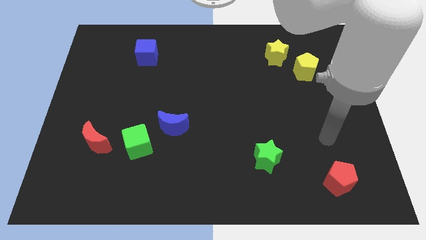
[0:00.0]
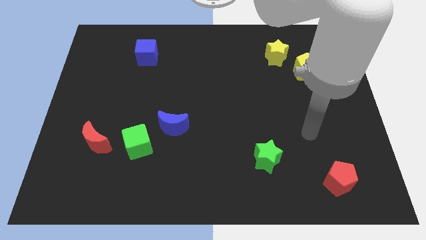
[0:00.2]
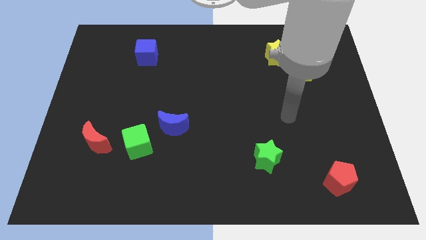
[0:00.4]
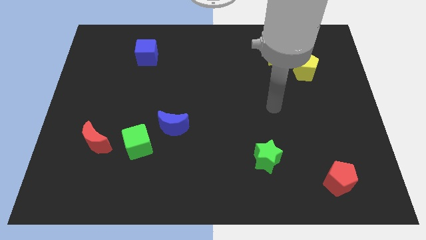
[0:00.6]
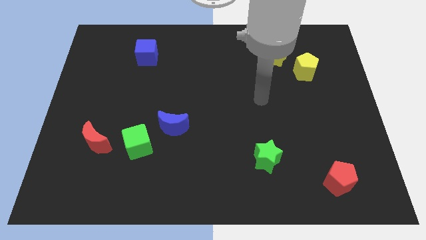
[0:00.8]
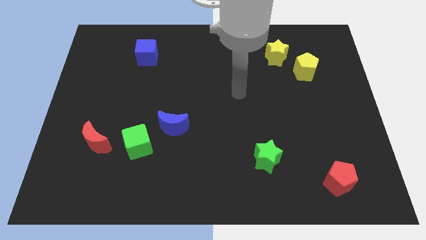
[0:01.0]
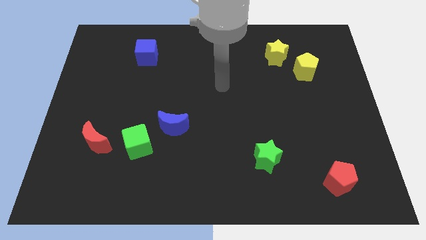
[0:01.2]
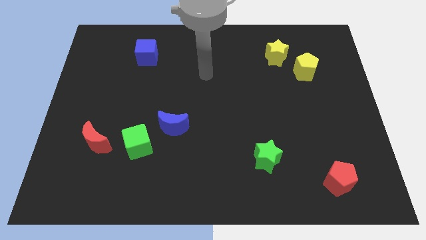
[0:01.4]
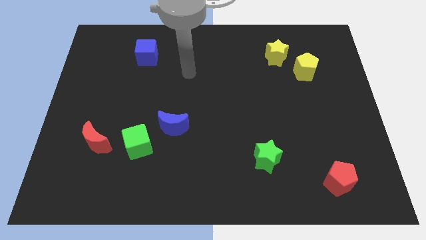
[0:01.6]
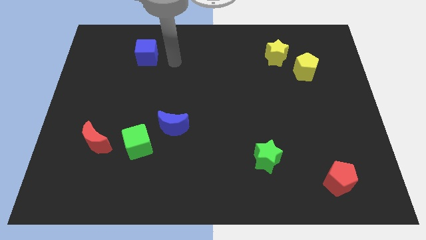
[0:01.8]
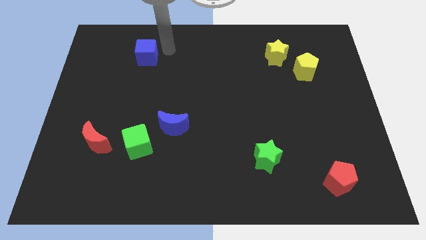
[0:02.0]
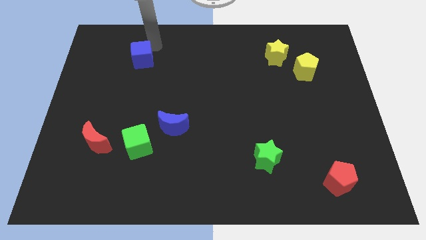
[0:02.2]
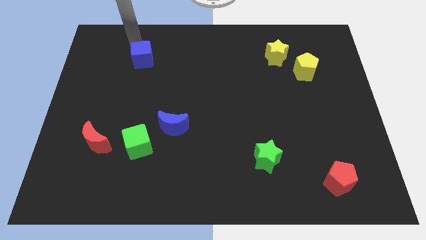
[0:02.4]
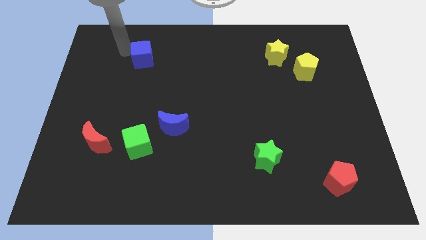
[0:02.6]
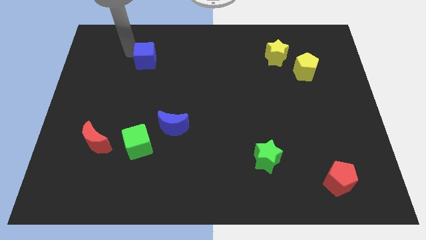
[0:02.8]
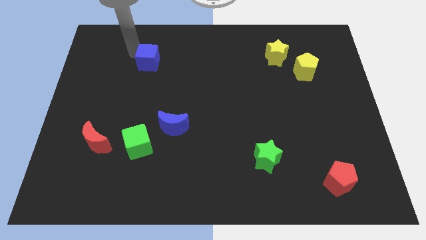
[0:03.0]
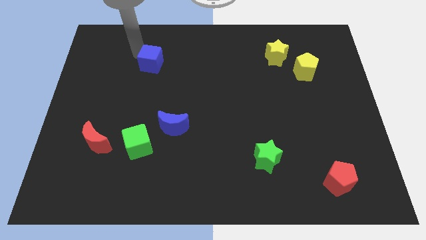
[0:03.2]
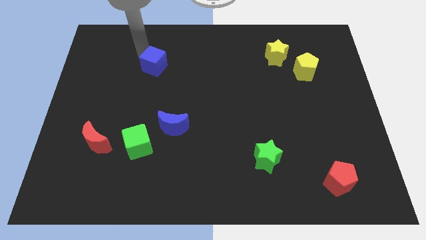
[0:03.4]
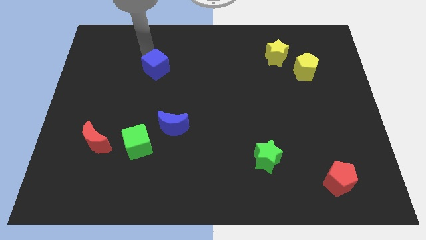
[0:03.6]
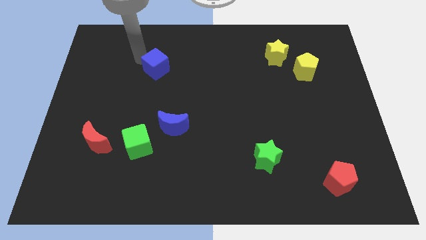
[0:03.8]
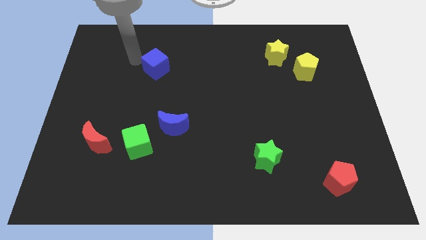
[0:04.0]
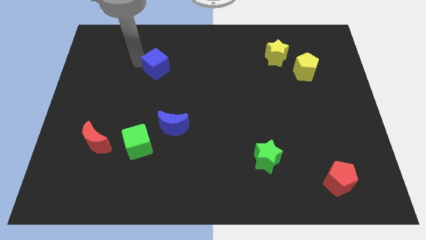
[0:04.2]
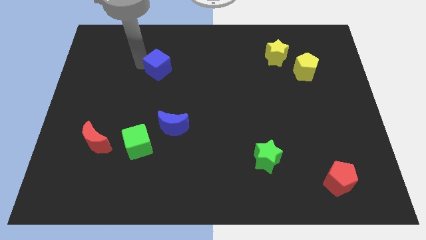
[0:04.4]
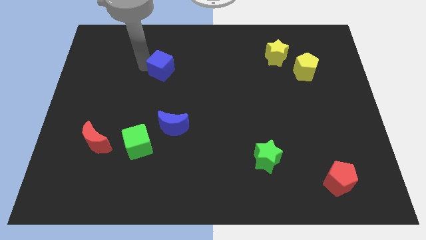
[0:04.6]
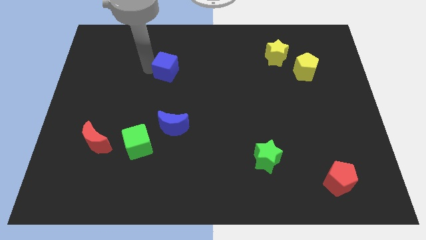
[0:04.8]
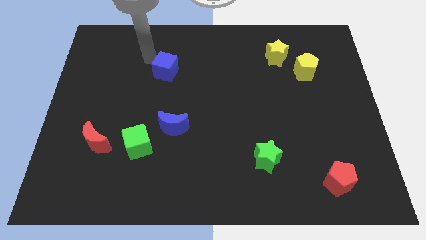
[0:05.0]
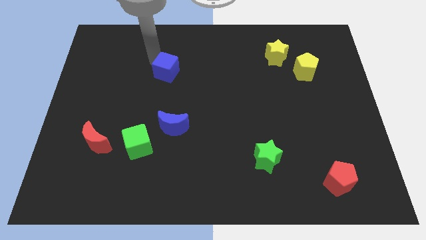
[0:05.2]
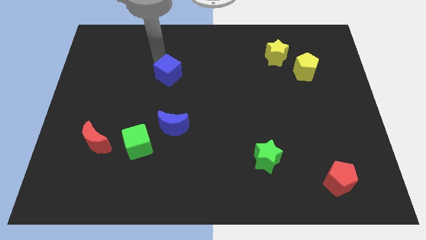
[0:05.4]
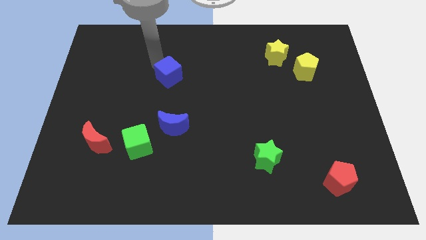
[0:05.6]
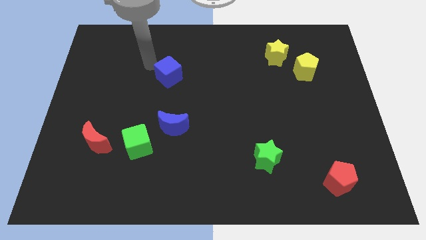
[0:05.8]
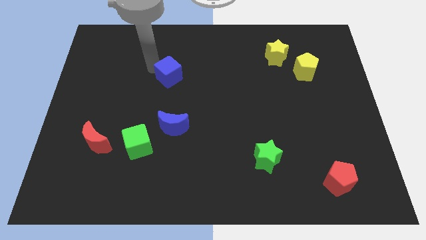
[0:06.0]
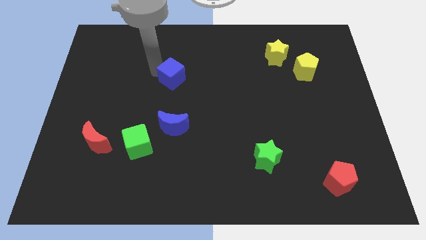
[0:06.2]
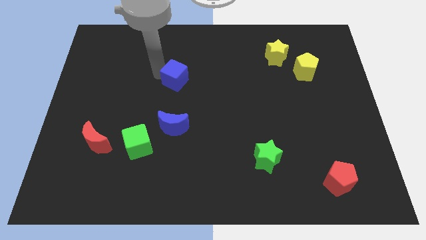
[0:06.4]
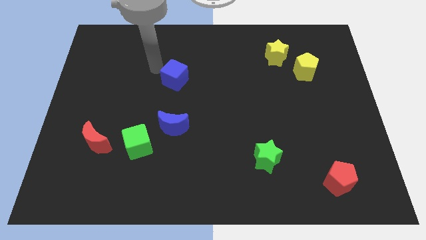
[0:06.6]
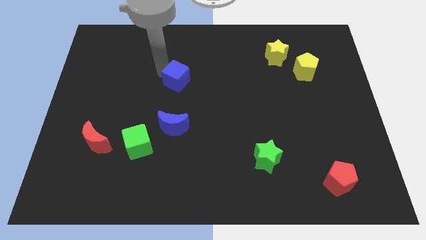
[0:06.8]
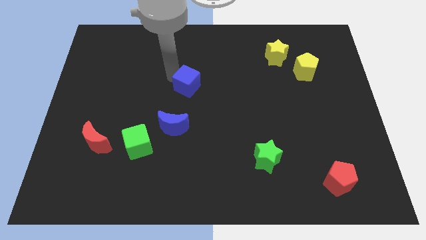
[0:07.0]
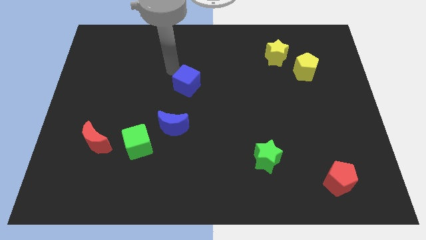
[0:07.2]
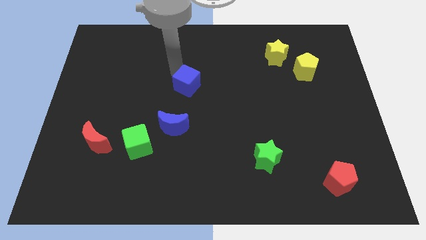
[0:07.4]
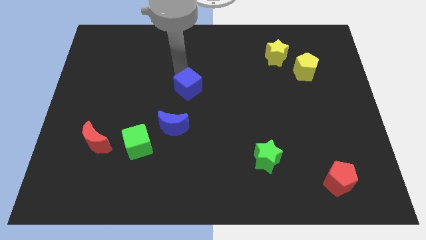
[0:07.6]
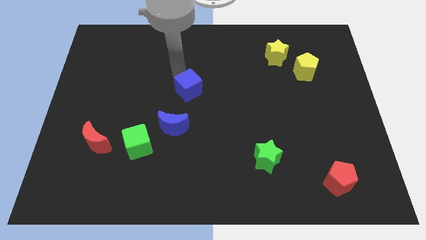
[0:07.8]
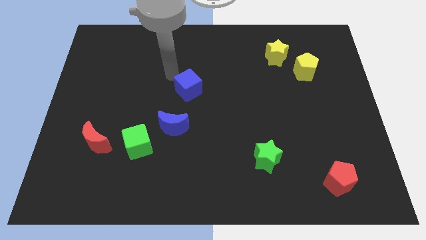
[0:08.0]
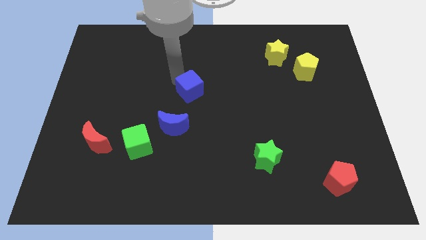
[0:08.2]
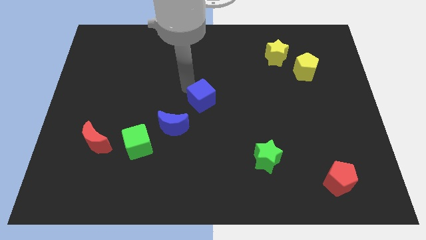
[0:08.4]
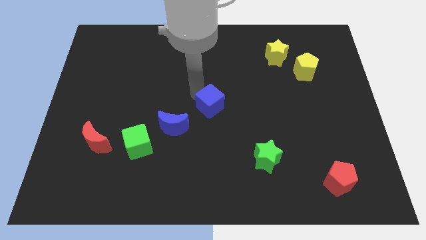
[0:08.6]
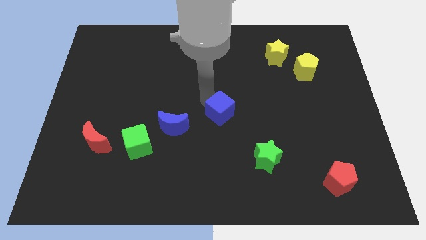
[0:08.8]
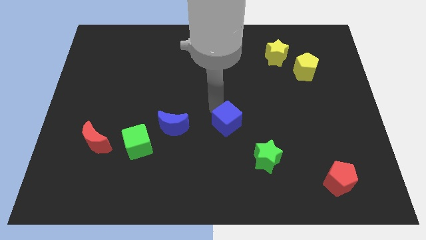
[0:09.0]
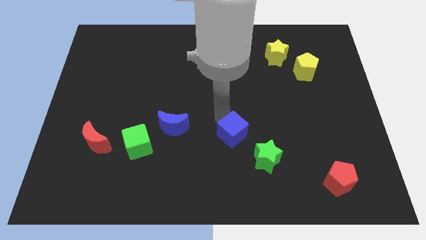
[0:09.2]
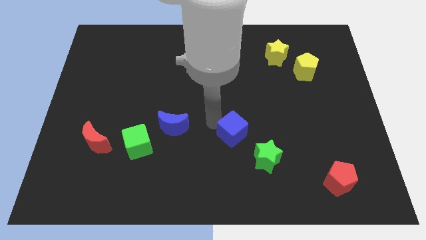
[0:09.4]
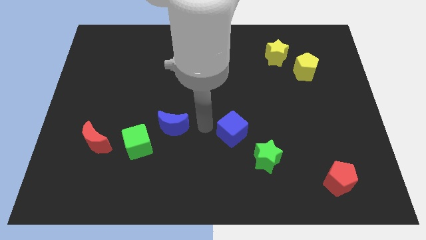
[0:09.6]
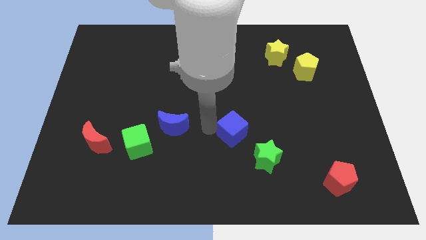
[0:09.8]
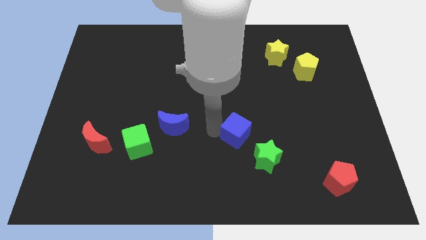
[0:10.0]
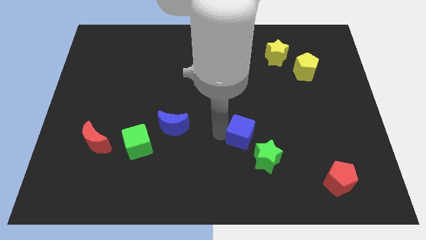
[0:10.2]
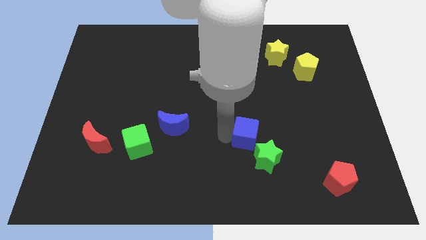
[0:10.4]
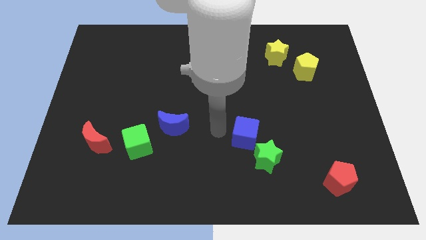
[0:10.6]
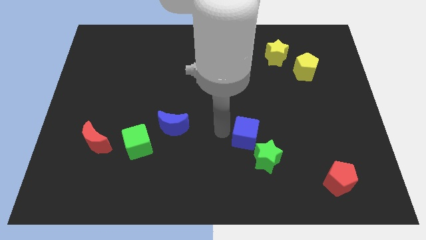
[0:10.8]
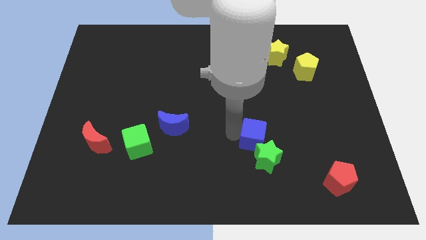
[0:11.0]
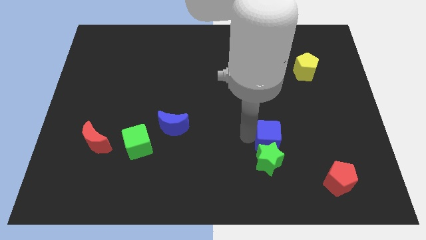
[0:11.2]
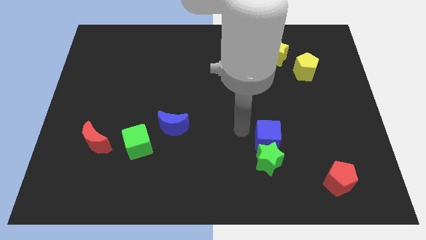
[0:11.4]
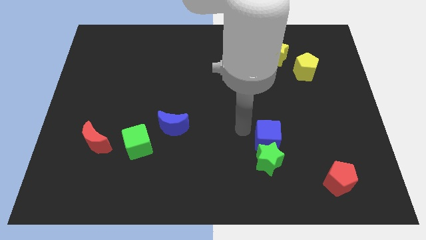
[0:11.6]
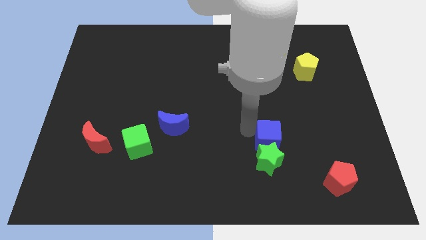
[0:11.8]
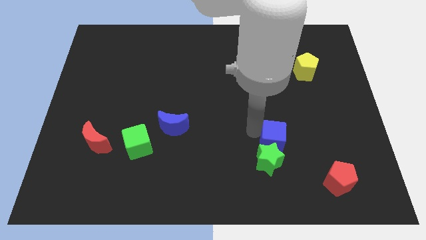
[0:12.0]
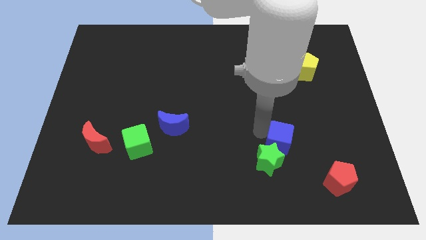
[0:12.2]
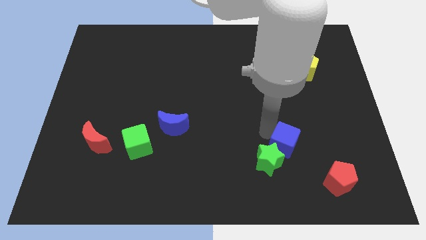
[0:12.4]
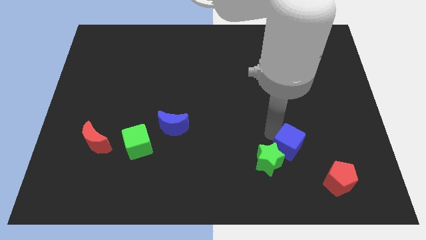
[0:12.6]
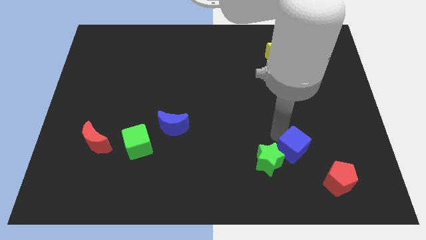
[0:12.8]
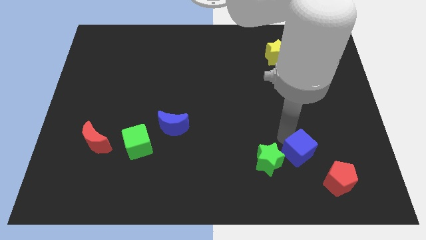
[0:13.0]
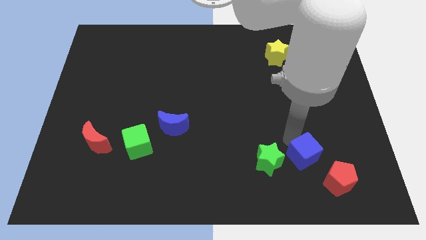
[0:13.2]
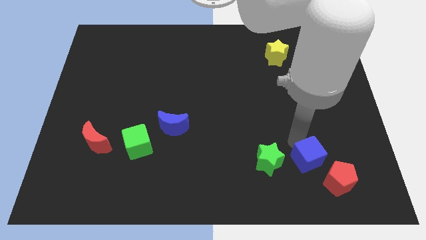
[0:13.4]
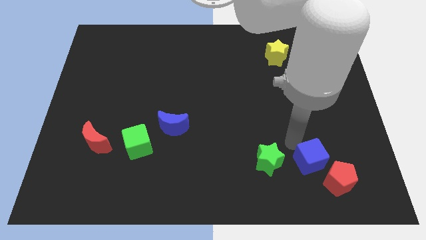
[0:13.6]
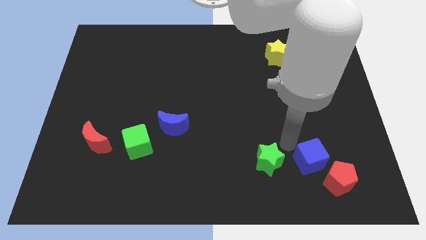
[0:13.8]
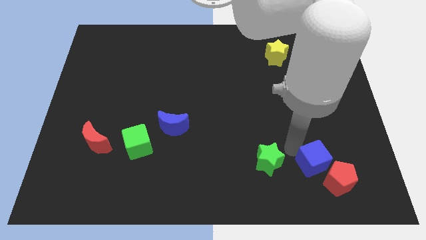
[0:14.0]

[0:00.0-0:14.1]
move the blue cube towards the red pentagon

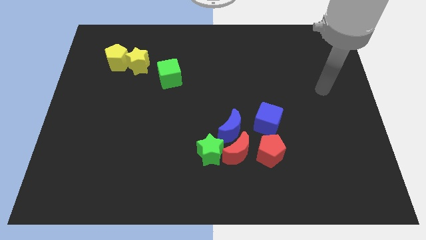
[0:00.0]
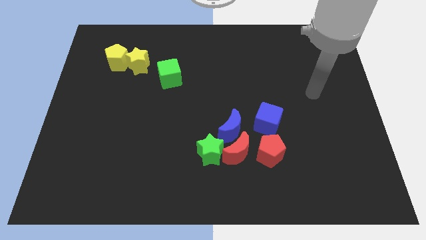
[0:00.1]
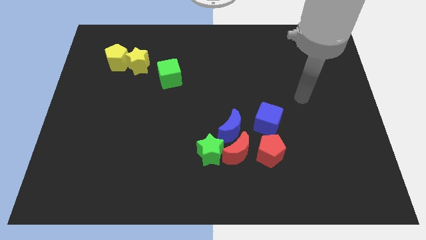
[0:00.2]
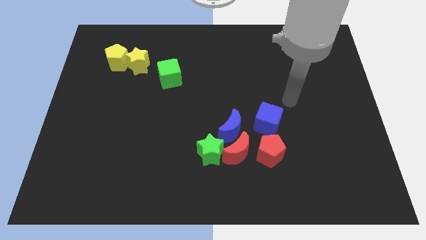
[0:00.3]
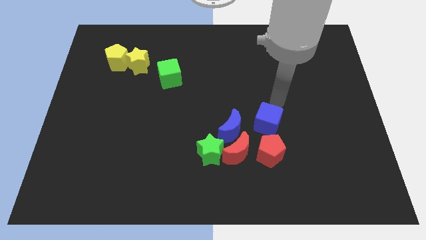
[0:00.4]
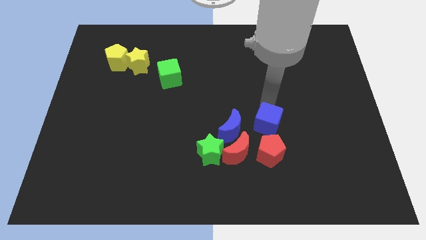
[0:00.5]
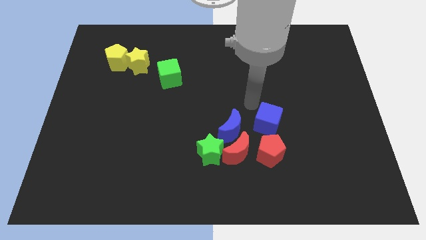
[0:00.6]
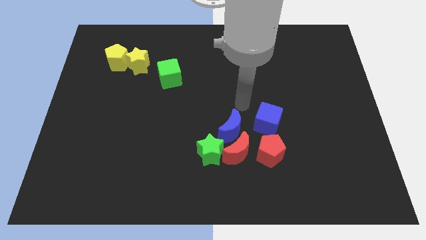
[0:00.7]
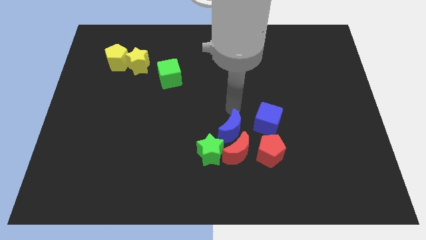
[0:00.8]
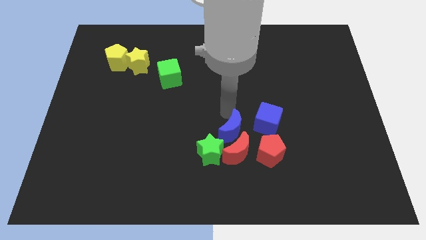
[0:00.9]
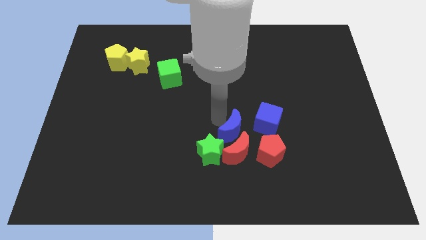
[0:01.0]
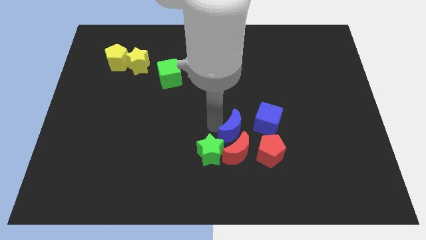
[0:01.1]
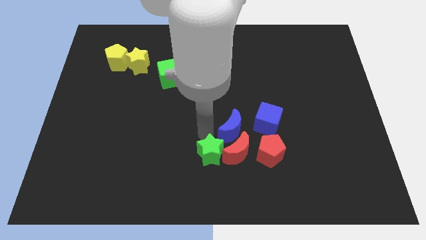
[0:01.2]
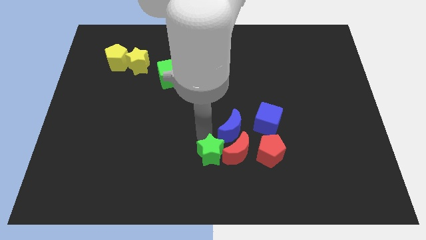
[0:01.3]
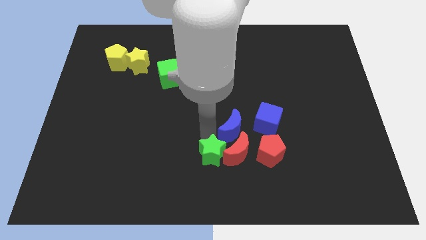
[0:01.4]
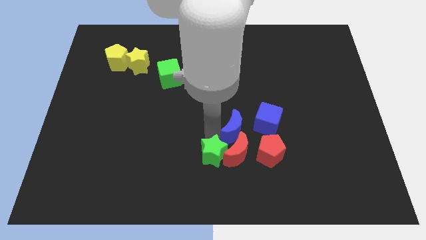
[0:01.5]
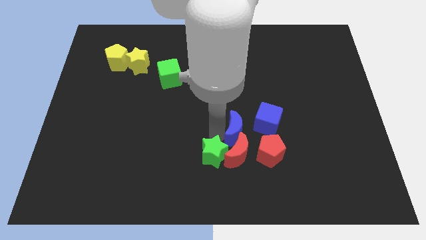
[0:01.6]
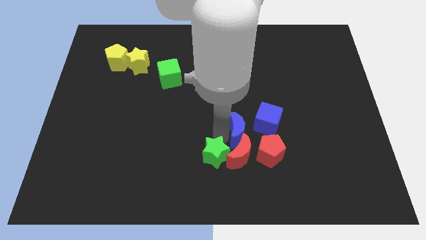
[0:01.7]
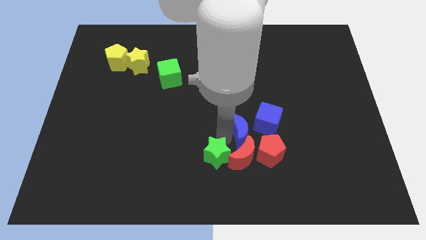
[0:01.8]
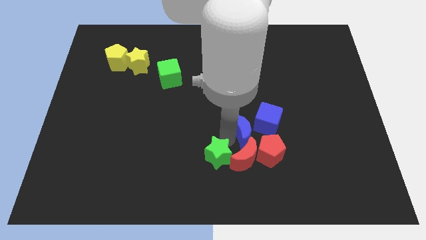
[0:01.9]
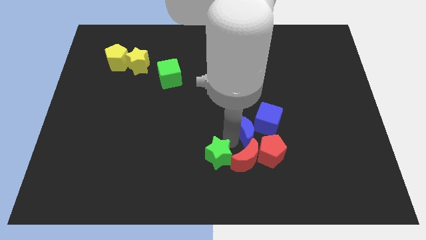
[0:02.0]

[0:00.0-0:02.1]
move the blue moon to the blue cube
